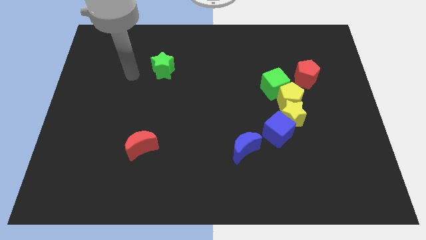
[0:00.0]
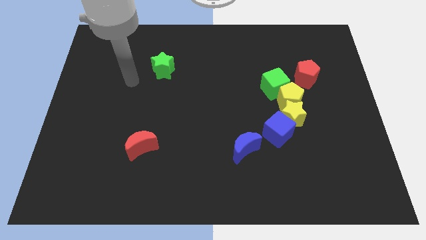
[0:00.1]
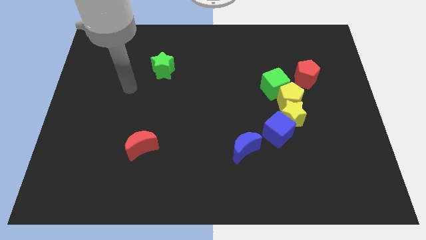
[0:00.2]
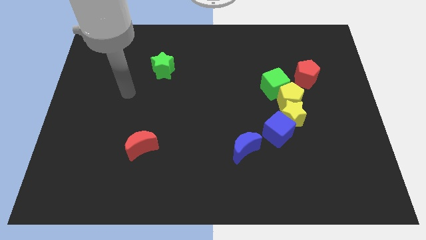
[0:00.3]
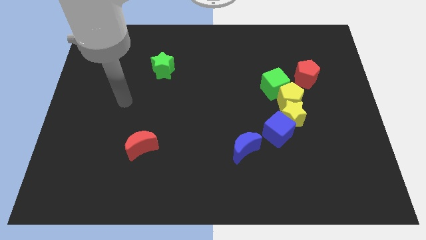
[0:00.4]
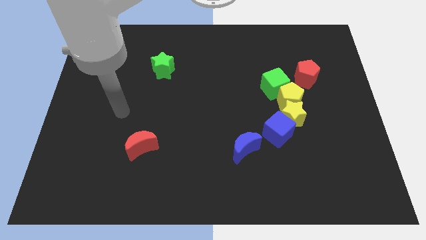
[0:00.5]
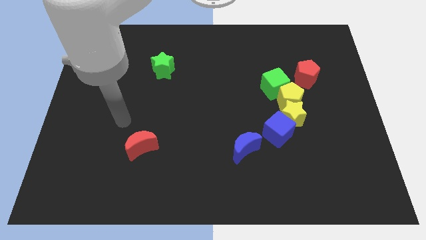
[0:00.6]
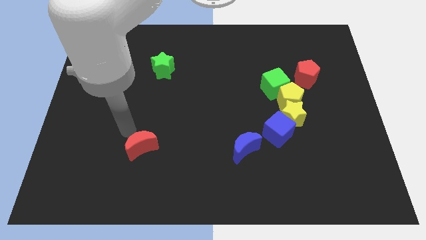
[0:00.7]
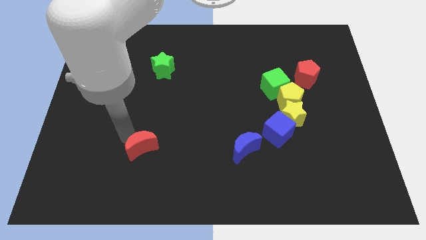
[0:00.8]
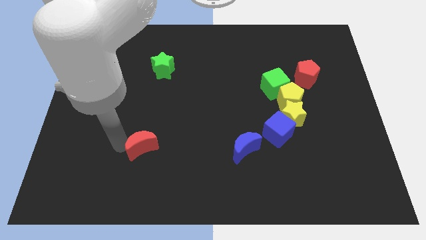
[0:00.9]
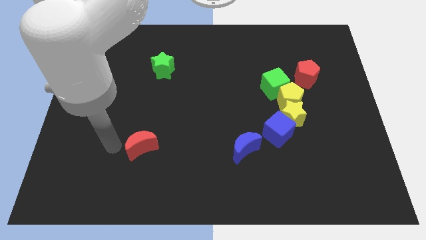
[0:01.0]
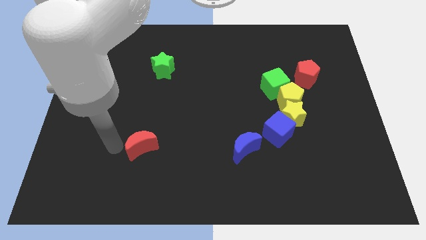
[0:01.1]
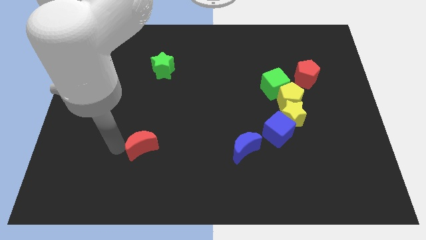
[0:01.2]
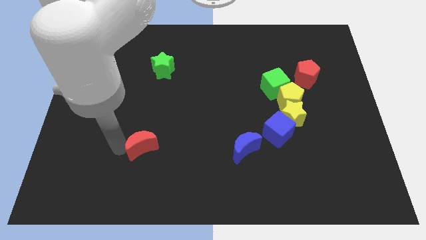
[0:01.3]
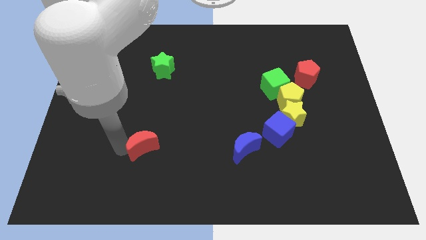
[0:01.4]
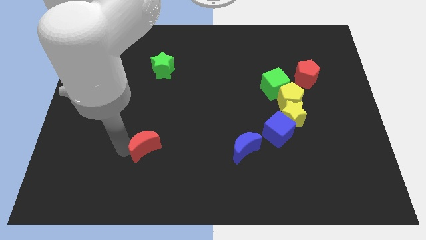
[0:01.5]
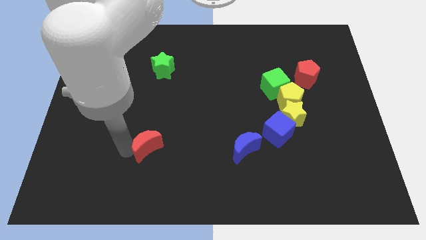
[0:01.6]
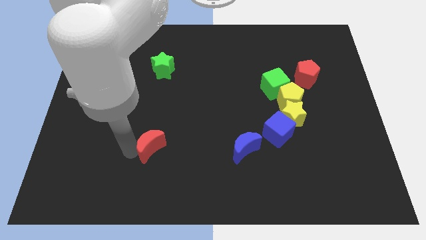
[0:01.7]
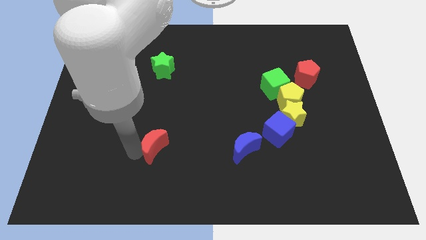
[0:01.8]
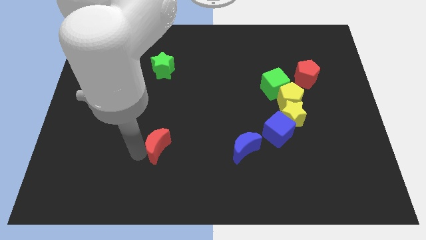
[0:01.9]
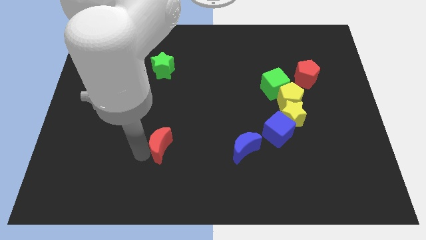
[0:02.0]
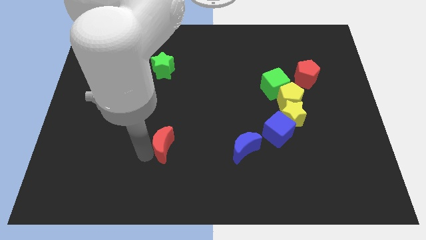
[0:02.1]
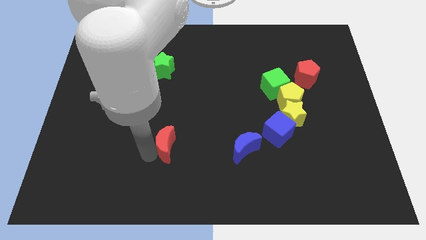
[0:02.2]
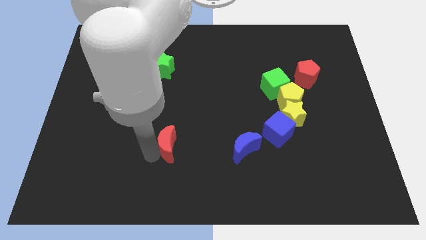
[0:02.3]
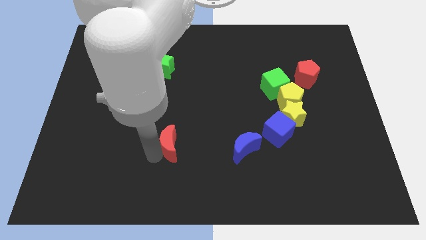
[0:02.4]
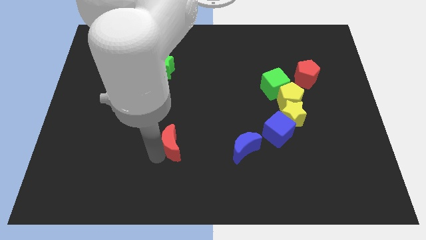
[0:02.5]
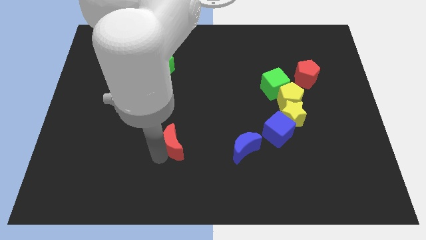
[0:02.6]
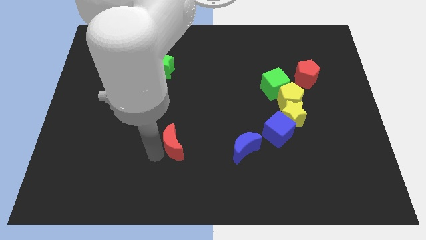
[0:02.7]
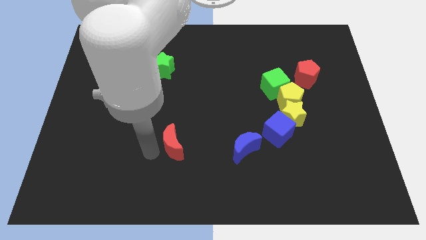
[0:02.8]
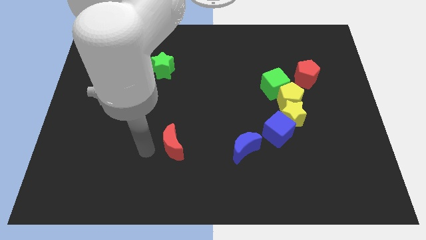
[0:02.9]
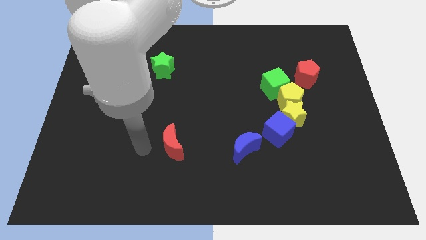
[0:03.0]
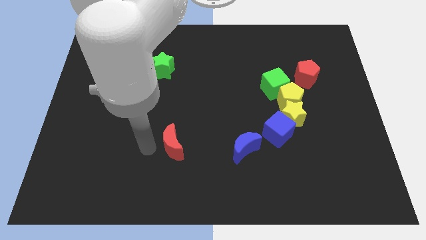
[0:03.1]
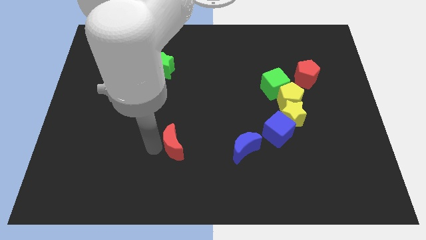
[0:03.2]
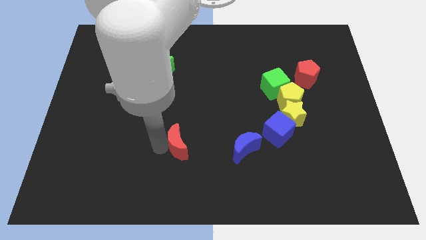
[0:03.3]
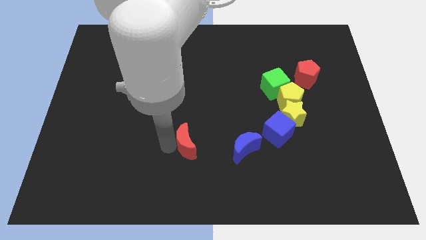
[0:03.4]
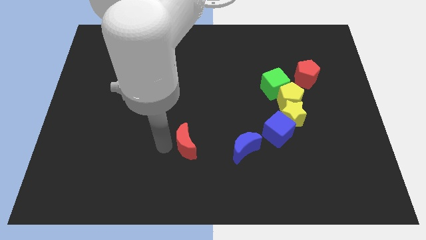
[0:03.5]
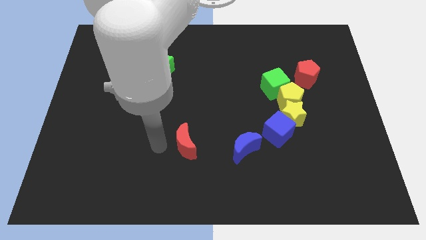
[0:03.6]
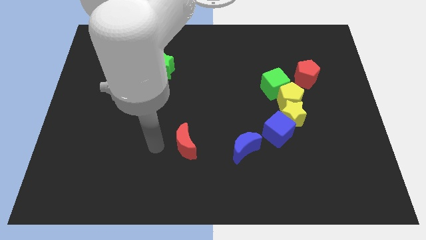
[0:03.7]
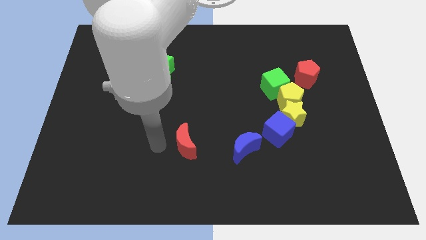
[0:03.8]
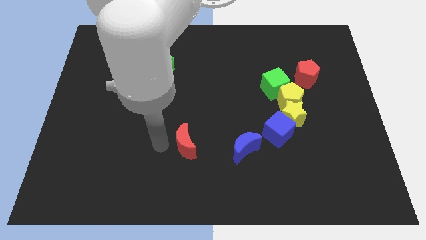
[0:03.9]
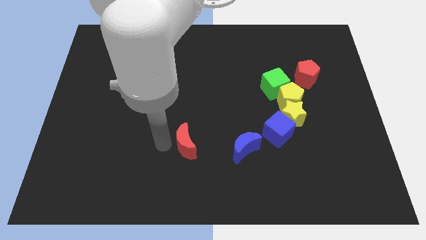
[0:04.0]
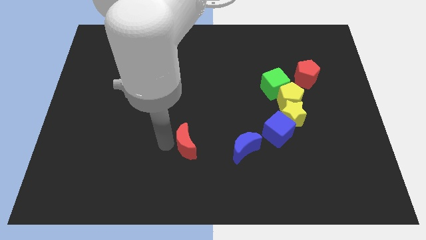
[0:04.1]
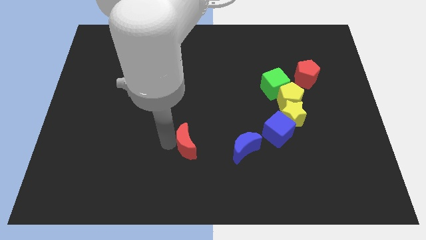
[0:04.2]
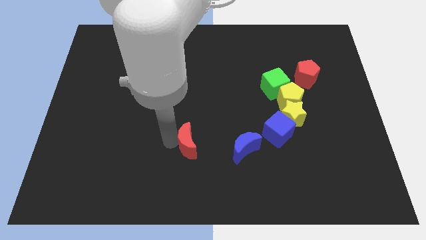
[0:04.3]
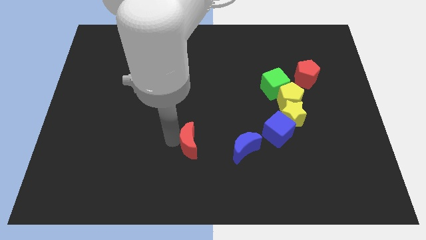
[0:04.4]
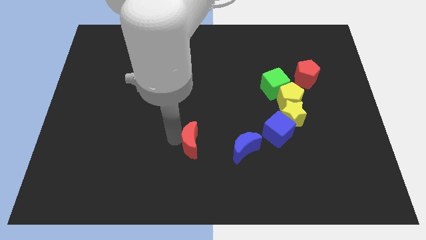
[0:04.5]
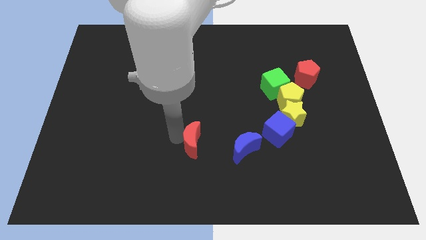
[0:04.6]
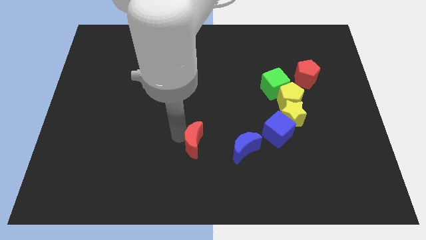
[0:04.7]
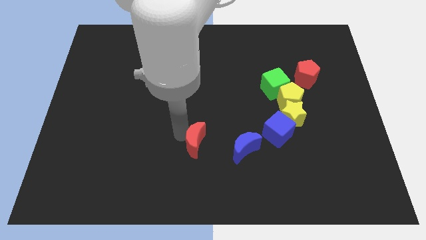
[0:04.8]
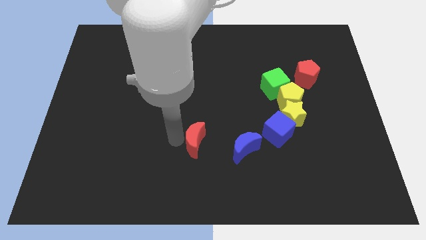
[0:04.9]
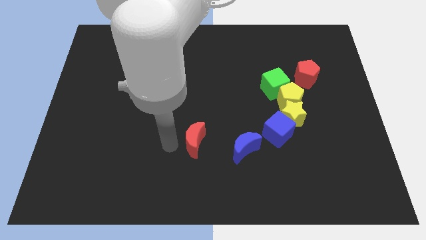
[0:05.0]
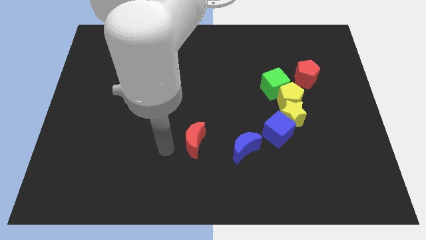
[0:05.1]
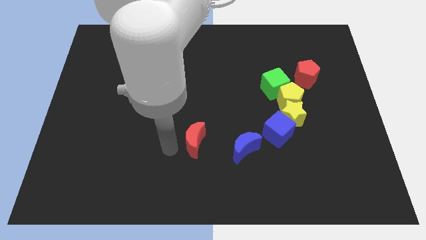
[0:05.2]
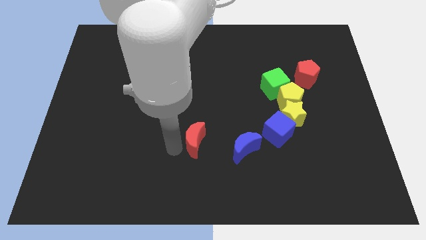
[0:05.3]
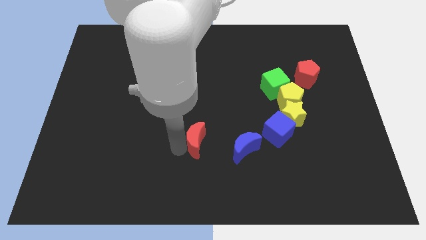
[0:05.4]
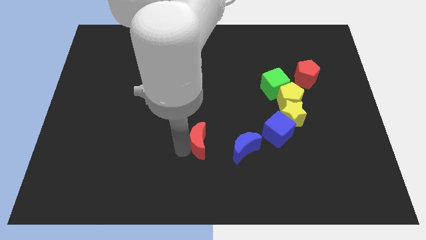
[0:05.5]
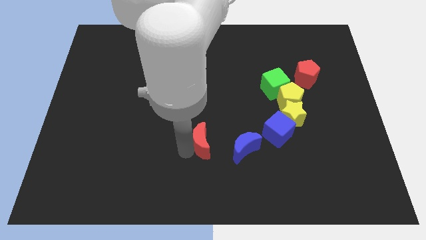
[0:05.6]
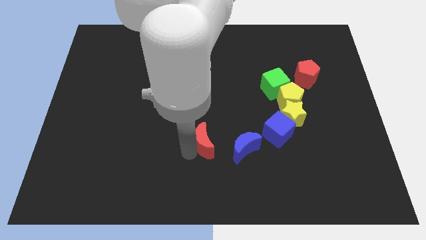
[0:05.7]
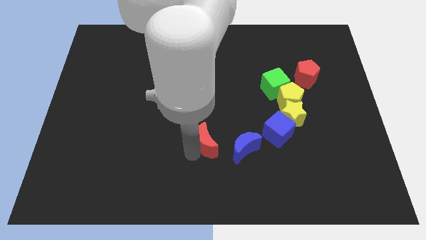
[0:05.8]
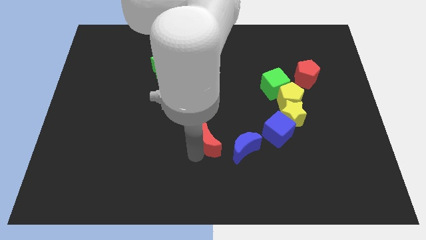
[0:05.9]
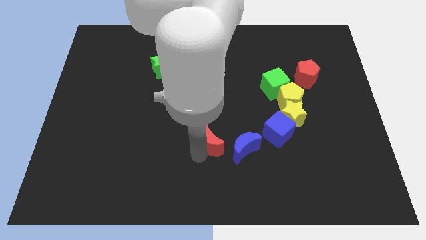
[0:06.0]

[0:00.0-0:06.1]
slide the red moon to the left side of the blue cube

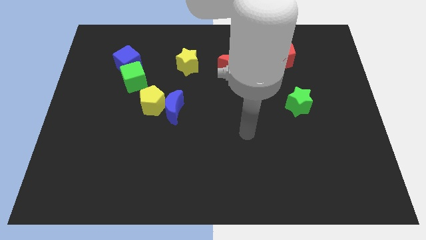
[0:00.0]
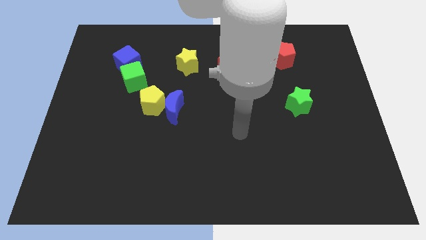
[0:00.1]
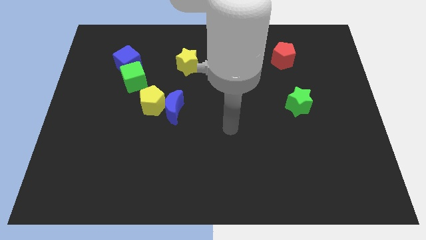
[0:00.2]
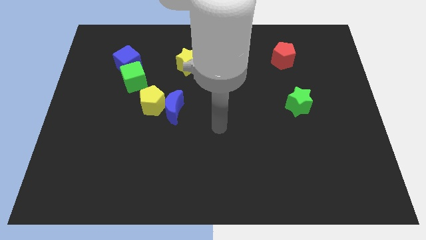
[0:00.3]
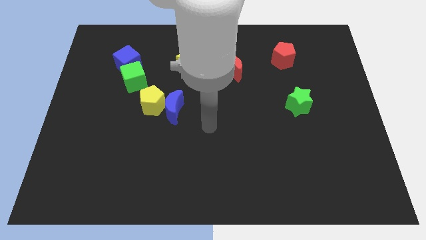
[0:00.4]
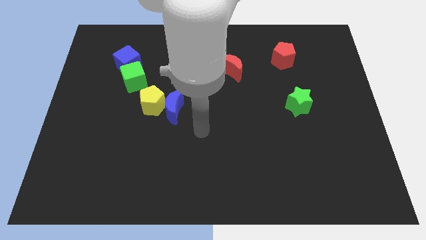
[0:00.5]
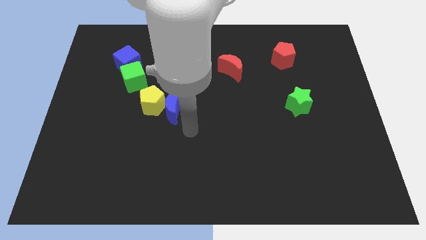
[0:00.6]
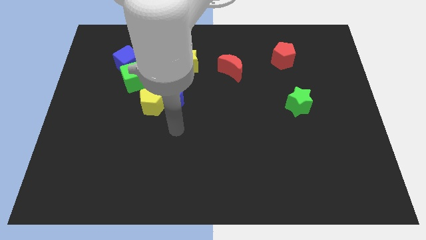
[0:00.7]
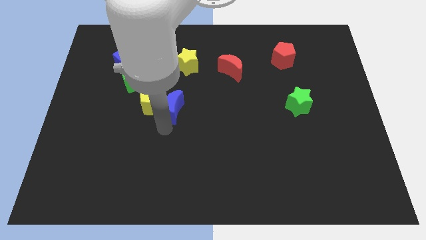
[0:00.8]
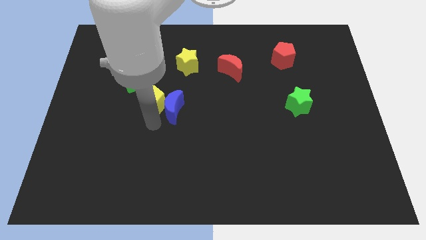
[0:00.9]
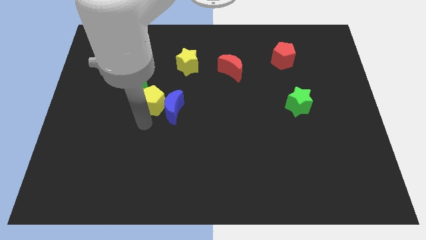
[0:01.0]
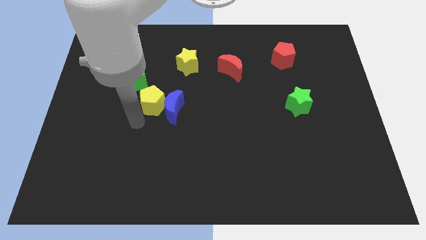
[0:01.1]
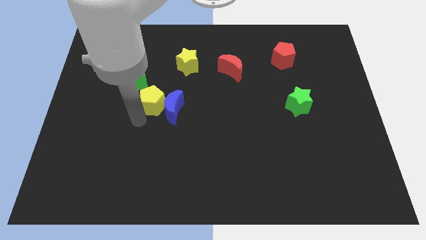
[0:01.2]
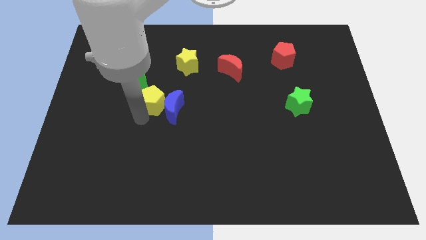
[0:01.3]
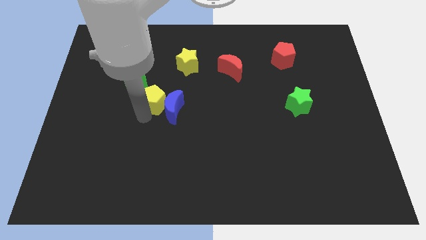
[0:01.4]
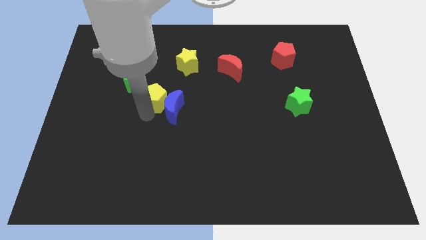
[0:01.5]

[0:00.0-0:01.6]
move the yellow pentagon to the top side of the blue moon

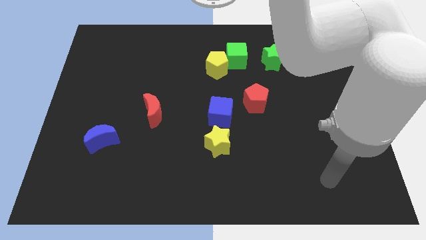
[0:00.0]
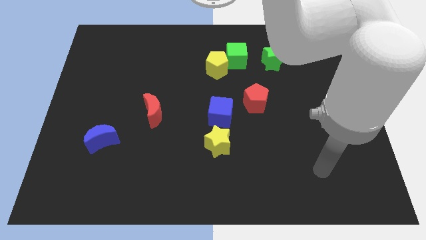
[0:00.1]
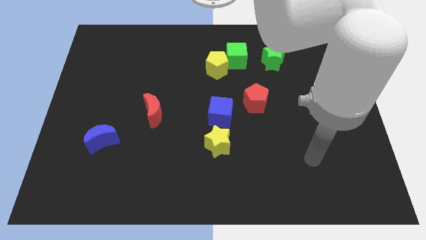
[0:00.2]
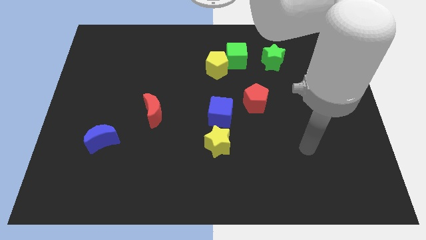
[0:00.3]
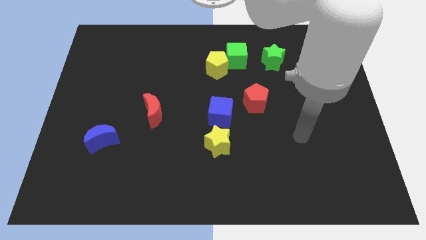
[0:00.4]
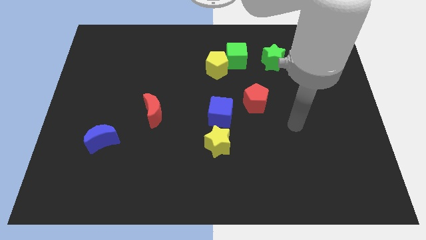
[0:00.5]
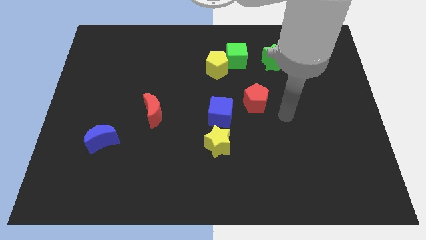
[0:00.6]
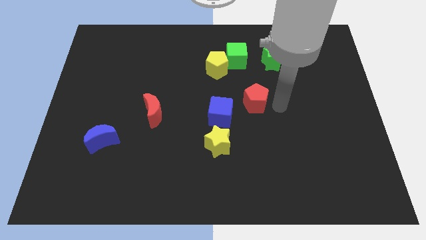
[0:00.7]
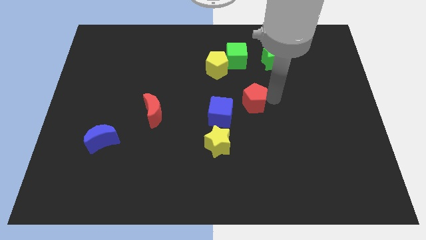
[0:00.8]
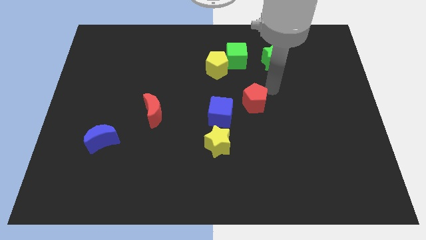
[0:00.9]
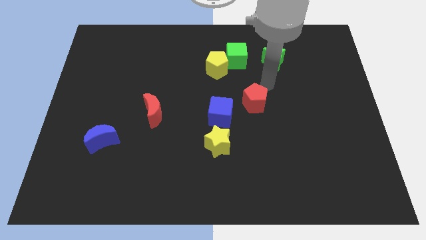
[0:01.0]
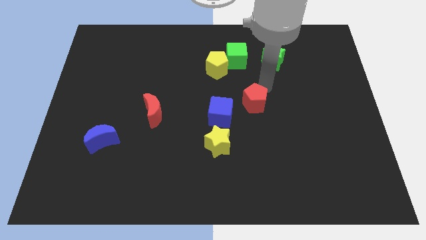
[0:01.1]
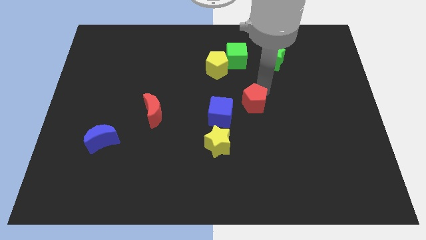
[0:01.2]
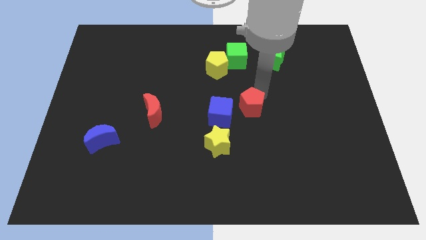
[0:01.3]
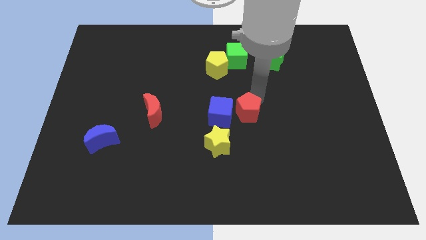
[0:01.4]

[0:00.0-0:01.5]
put the red pentagon to the top right of the yellow star
